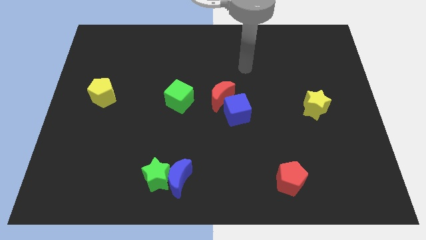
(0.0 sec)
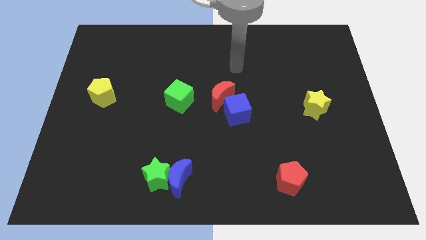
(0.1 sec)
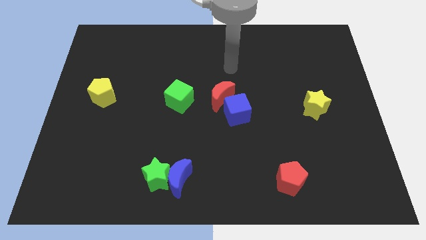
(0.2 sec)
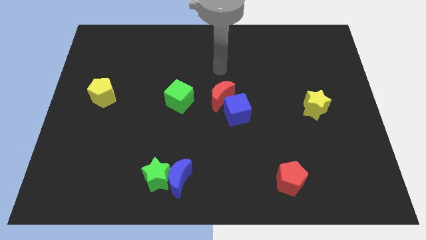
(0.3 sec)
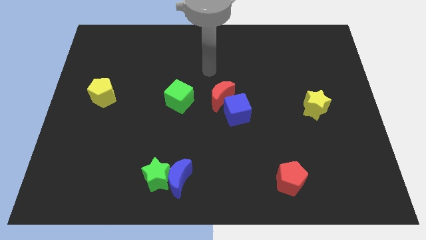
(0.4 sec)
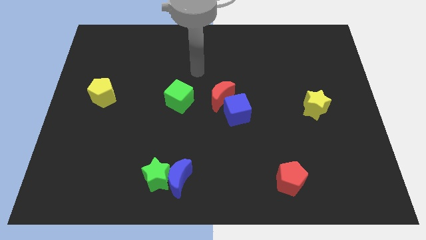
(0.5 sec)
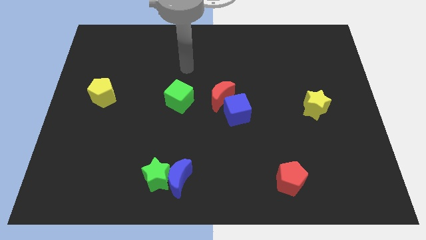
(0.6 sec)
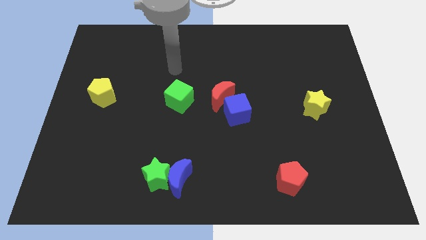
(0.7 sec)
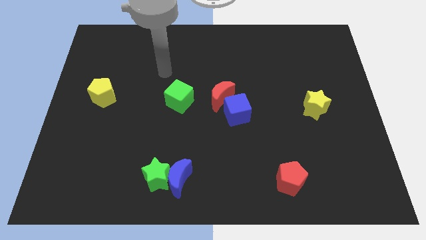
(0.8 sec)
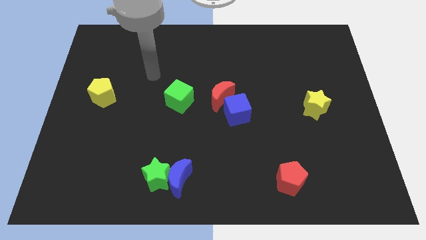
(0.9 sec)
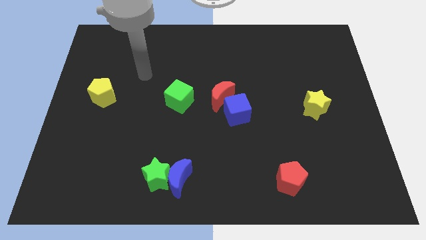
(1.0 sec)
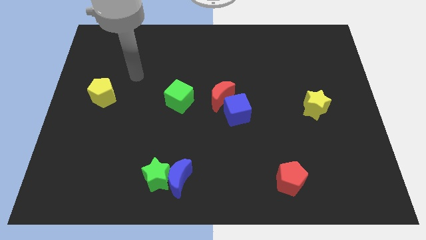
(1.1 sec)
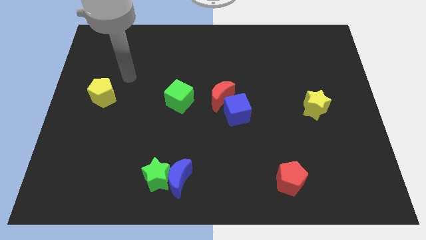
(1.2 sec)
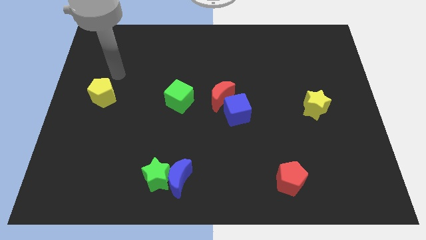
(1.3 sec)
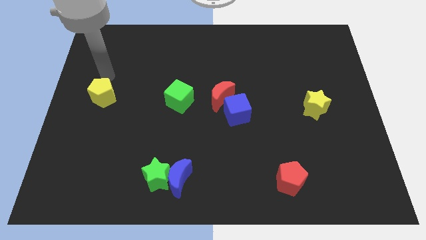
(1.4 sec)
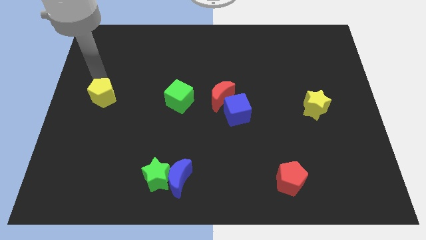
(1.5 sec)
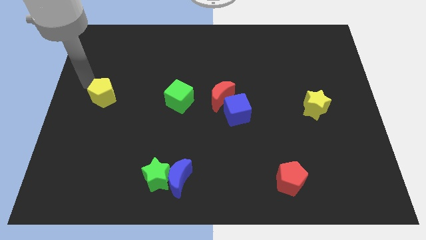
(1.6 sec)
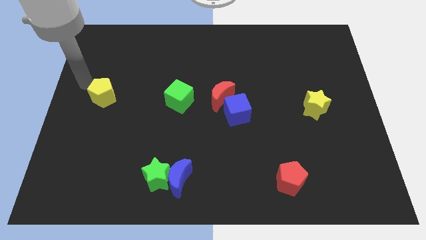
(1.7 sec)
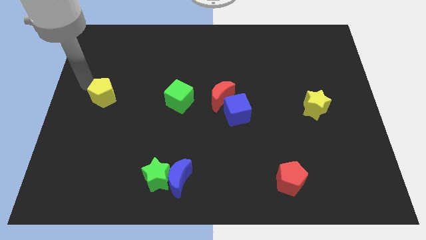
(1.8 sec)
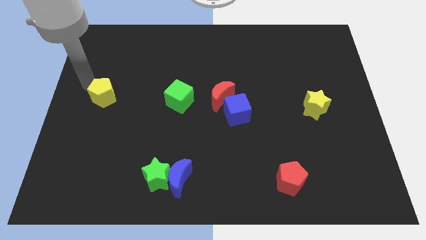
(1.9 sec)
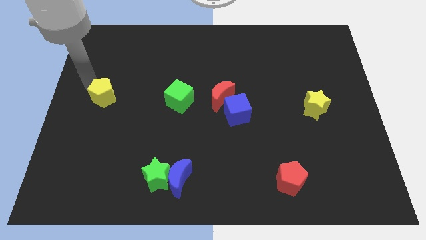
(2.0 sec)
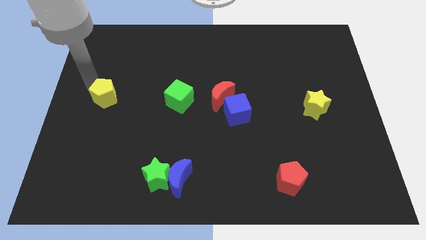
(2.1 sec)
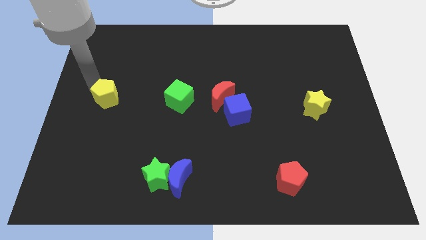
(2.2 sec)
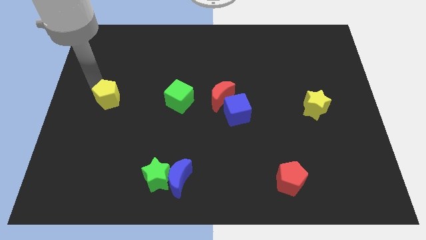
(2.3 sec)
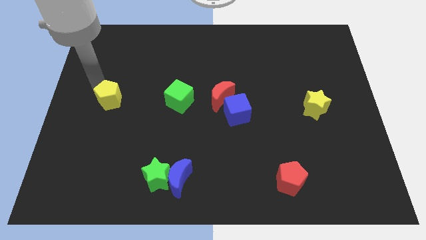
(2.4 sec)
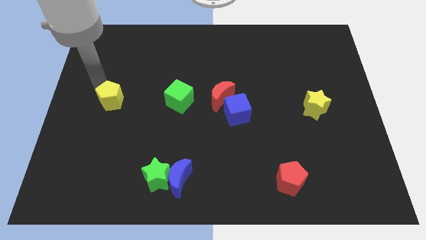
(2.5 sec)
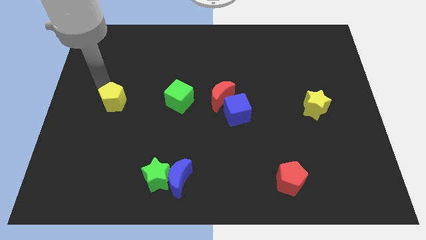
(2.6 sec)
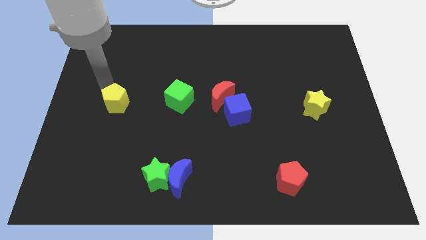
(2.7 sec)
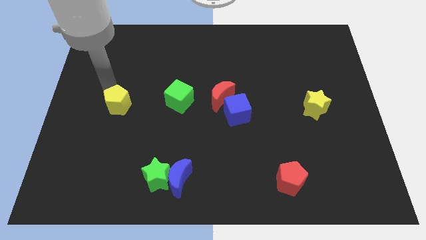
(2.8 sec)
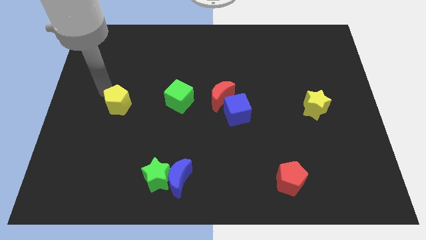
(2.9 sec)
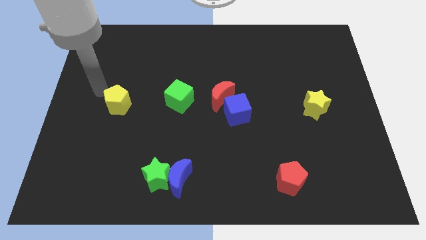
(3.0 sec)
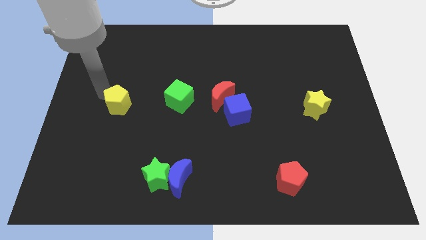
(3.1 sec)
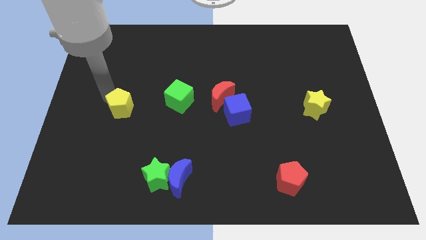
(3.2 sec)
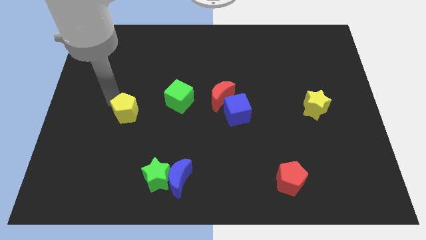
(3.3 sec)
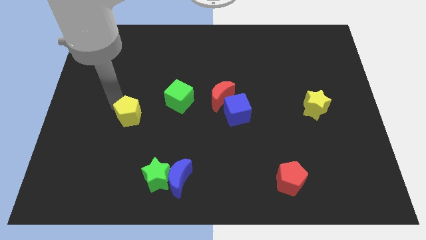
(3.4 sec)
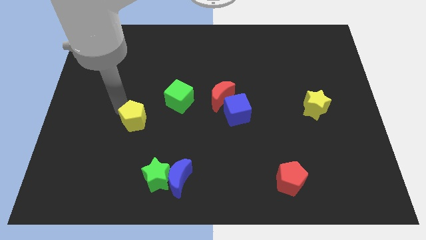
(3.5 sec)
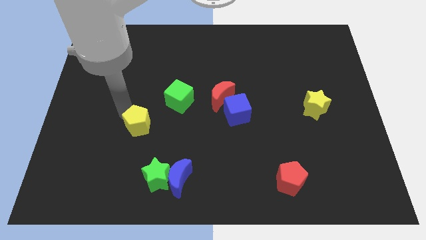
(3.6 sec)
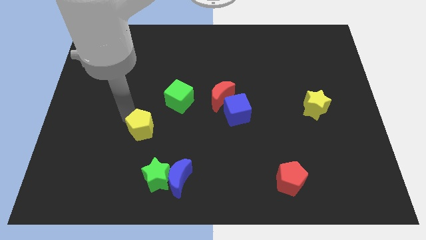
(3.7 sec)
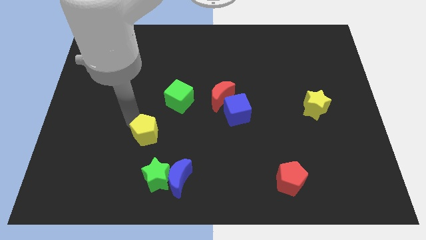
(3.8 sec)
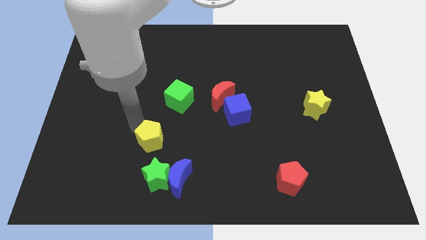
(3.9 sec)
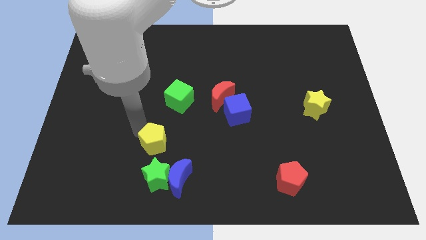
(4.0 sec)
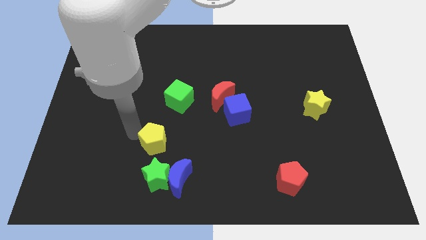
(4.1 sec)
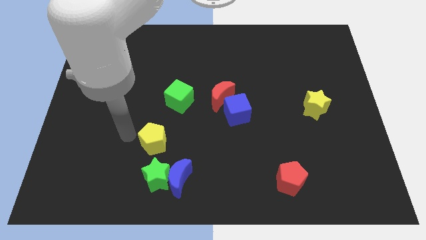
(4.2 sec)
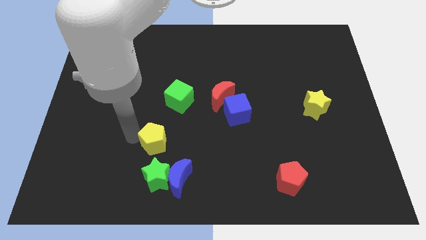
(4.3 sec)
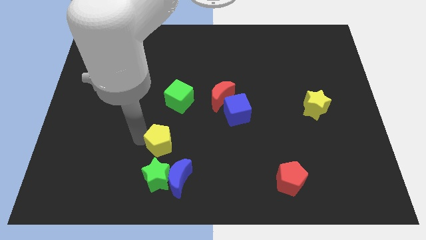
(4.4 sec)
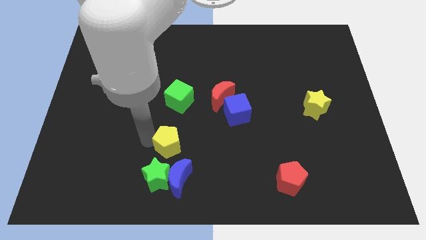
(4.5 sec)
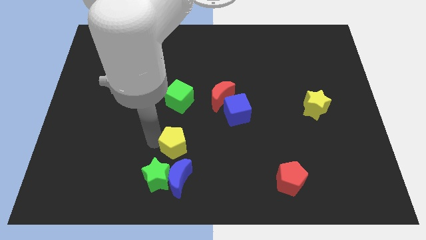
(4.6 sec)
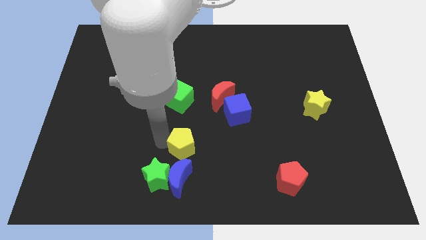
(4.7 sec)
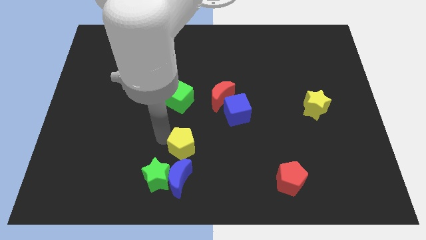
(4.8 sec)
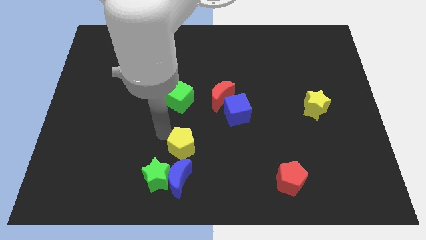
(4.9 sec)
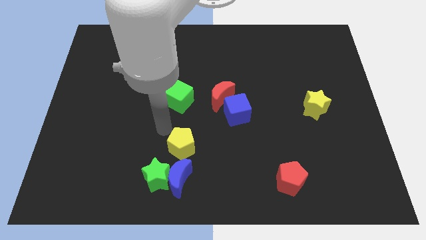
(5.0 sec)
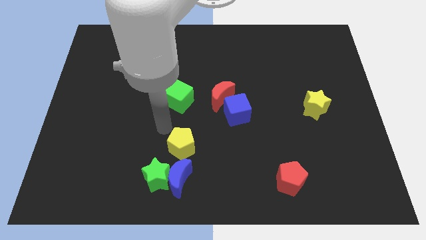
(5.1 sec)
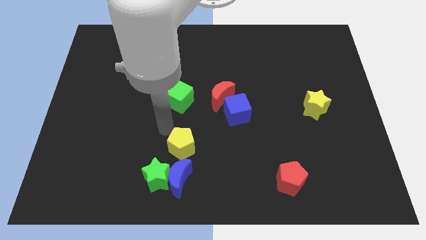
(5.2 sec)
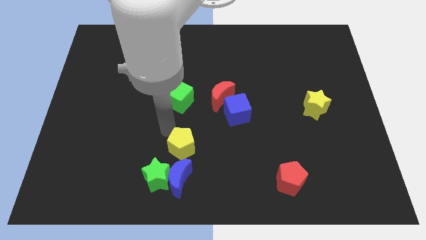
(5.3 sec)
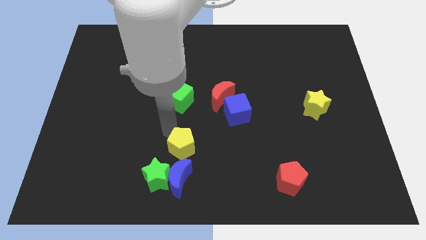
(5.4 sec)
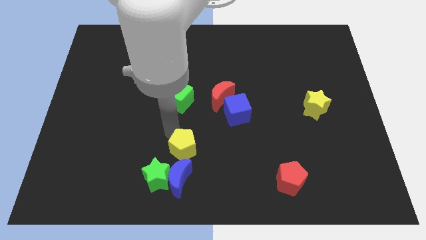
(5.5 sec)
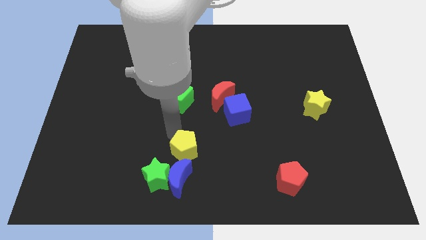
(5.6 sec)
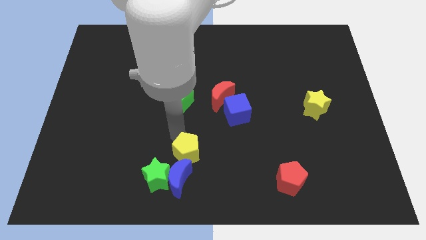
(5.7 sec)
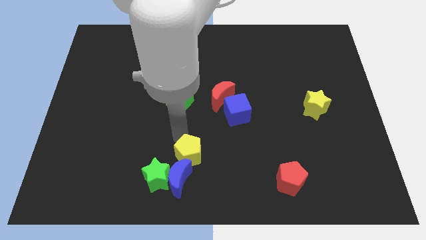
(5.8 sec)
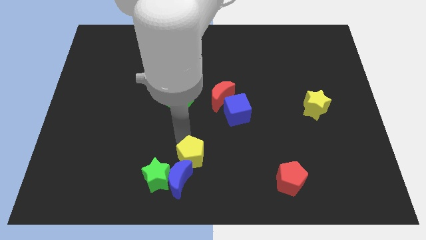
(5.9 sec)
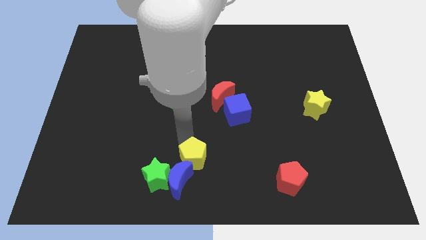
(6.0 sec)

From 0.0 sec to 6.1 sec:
put the yellow pentagon to the bottom side

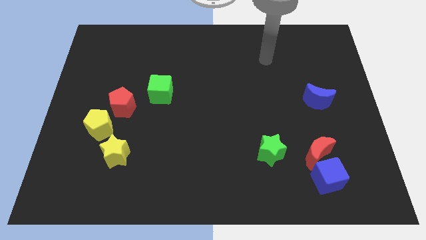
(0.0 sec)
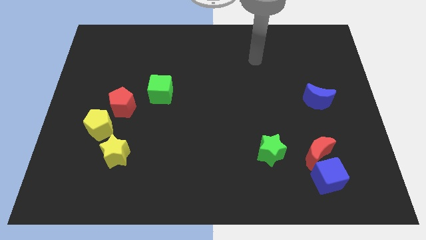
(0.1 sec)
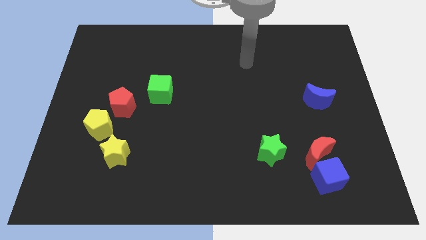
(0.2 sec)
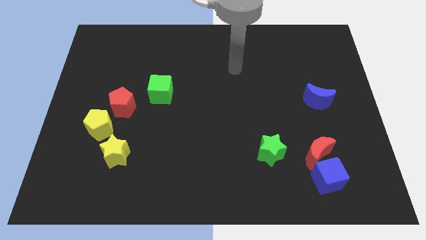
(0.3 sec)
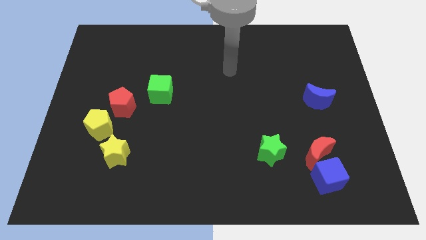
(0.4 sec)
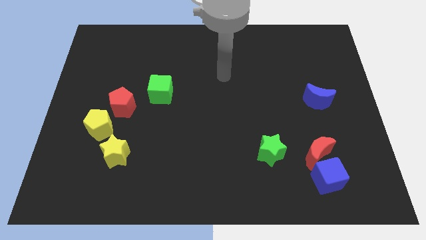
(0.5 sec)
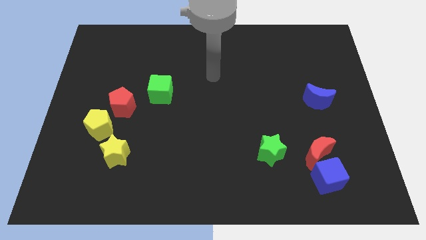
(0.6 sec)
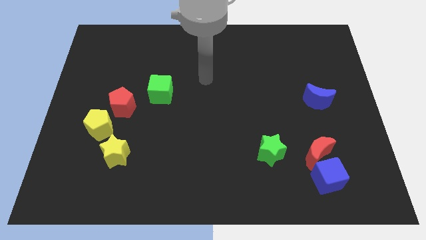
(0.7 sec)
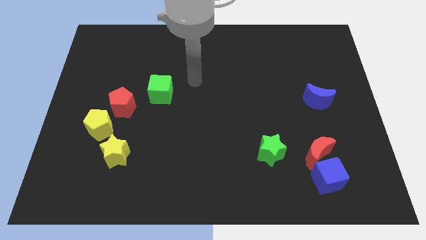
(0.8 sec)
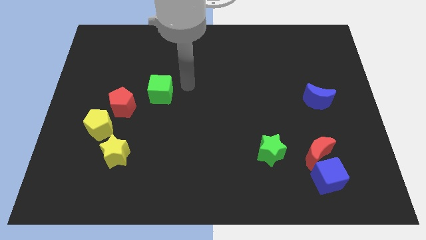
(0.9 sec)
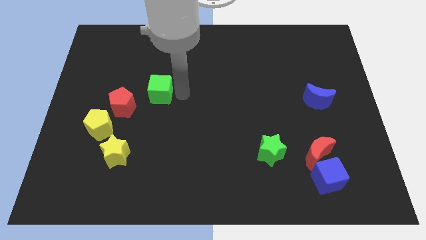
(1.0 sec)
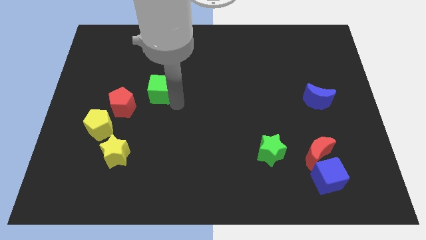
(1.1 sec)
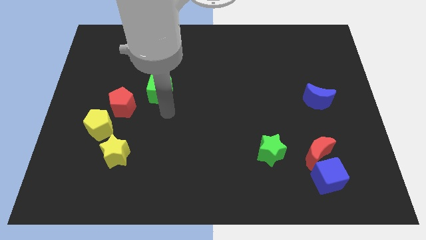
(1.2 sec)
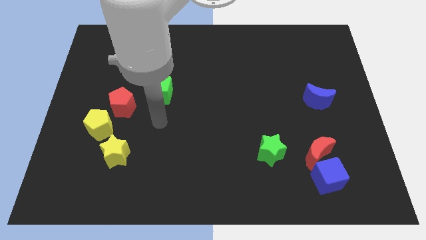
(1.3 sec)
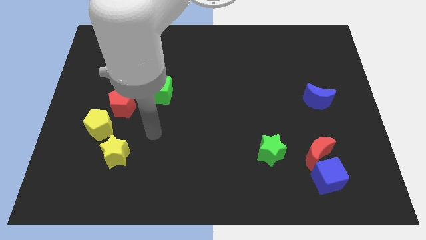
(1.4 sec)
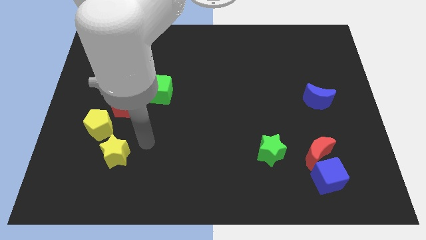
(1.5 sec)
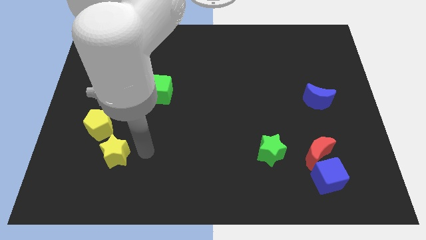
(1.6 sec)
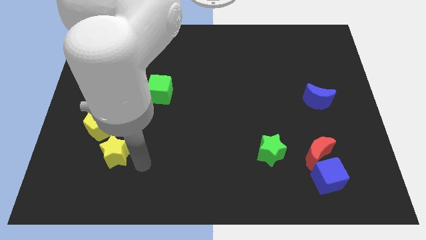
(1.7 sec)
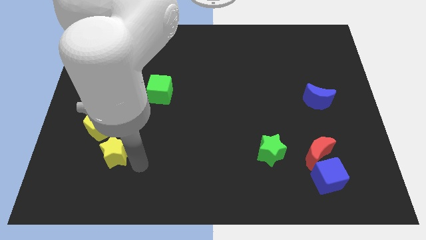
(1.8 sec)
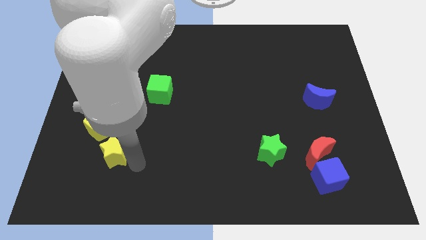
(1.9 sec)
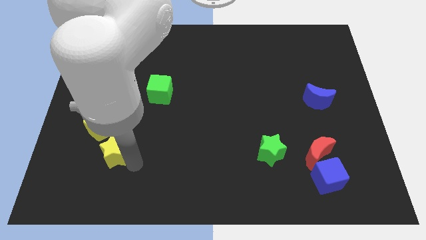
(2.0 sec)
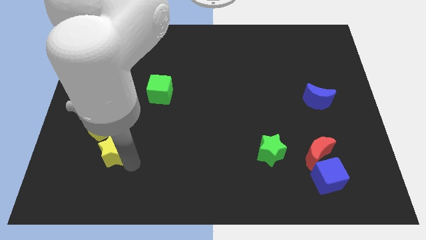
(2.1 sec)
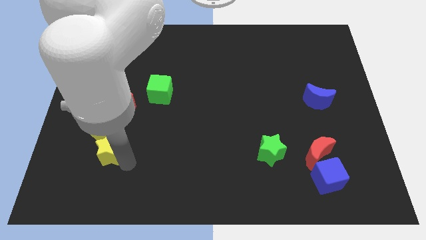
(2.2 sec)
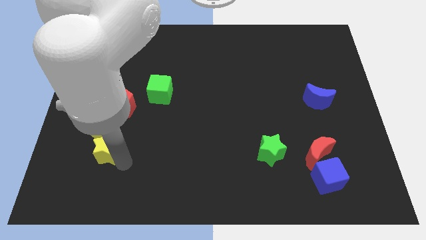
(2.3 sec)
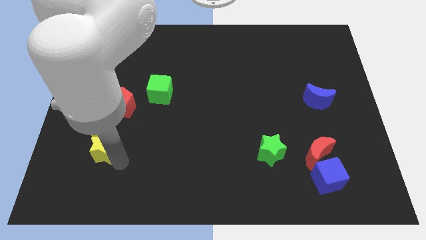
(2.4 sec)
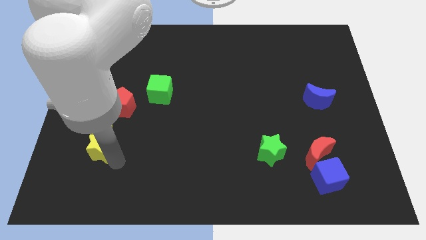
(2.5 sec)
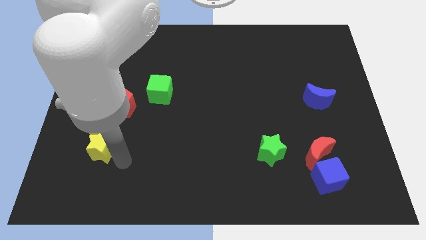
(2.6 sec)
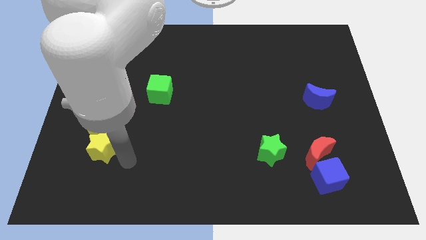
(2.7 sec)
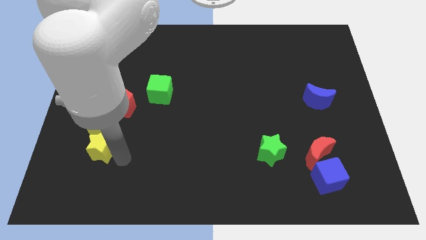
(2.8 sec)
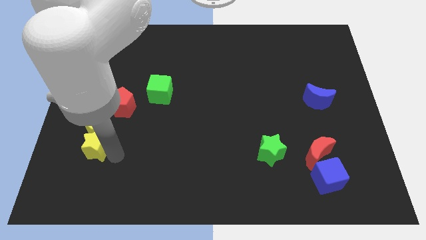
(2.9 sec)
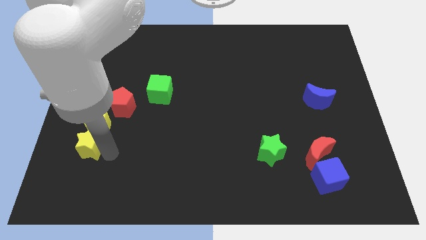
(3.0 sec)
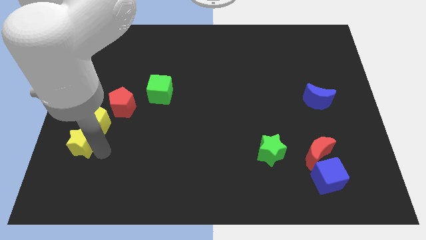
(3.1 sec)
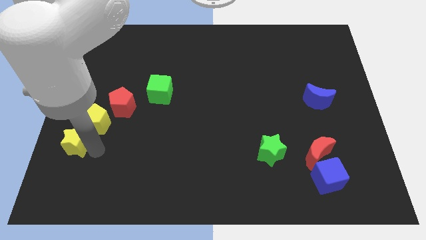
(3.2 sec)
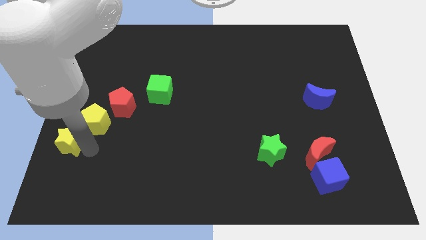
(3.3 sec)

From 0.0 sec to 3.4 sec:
push the yellow star to the center left
